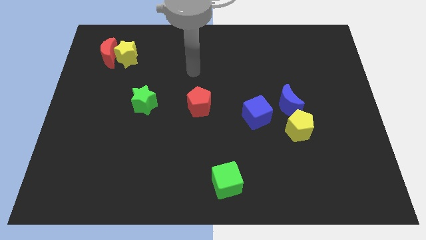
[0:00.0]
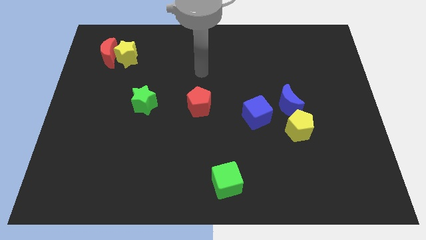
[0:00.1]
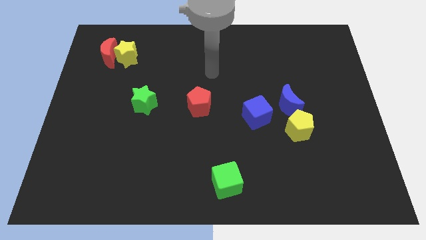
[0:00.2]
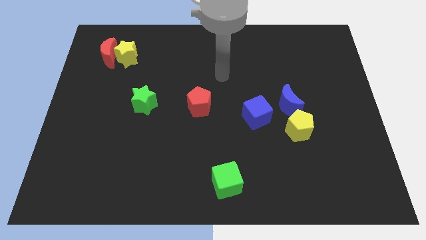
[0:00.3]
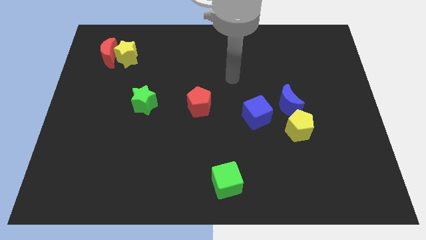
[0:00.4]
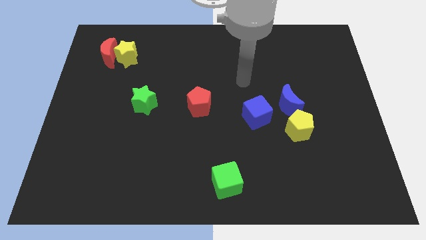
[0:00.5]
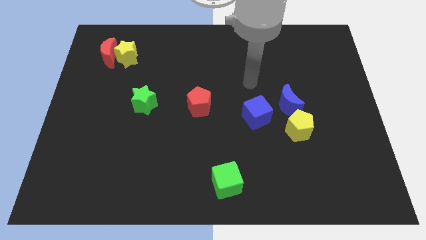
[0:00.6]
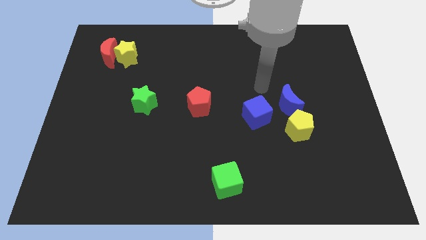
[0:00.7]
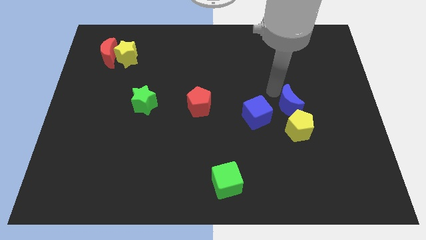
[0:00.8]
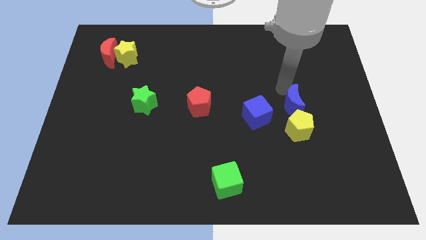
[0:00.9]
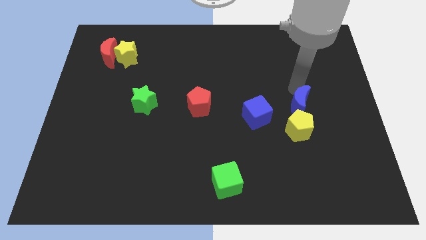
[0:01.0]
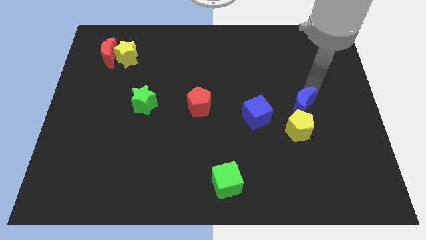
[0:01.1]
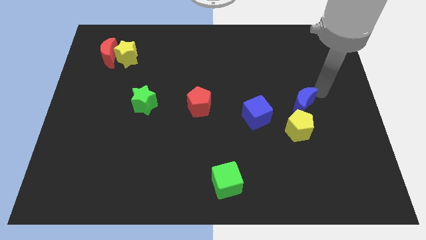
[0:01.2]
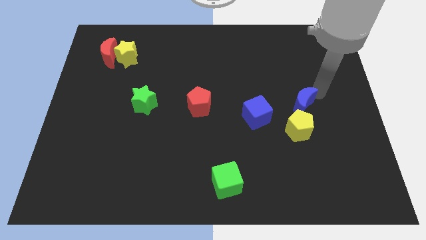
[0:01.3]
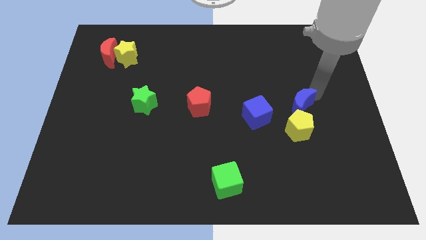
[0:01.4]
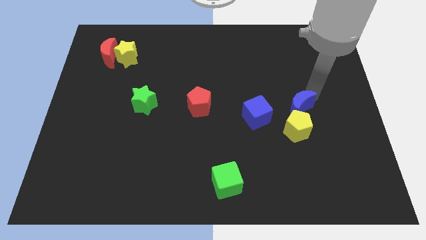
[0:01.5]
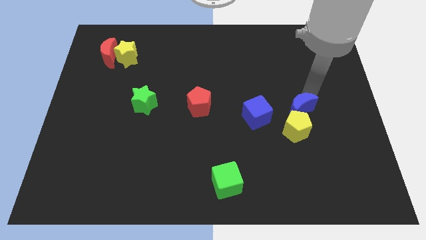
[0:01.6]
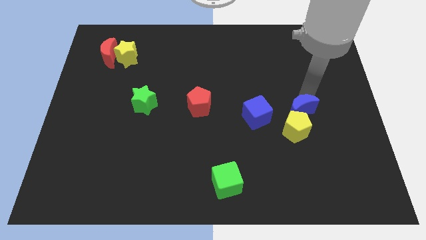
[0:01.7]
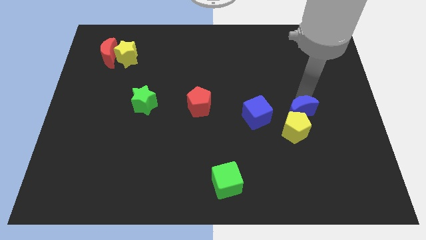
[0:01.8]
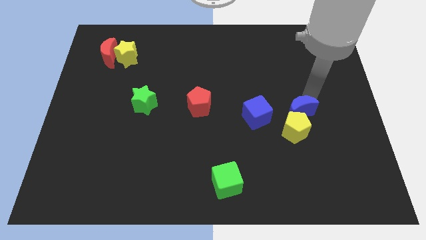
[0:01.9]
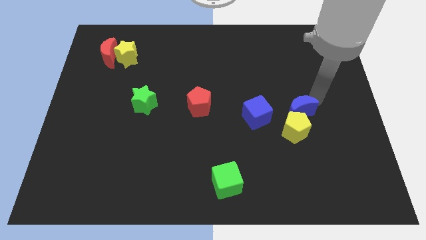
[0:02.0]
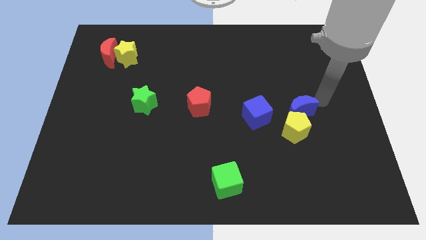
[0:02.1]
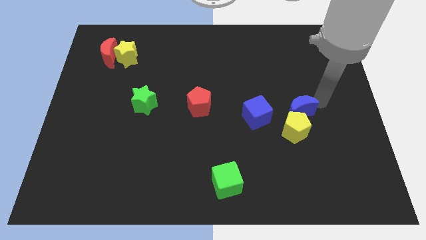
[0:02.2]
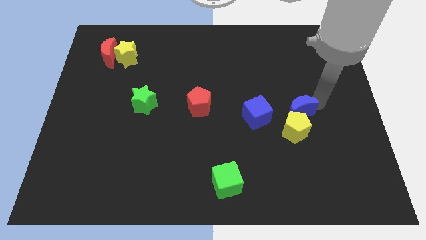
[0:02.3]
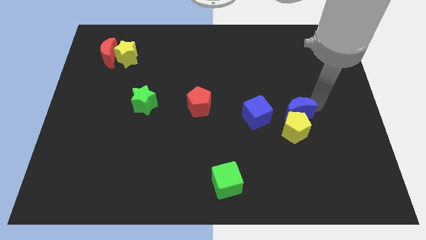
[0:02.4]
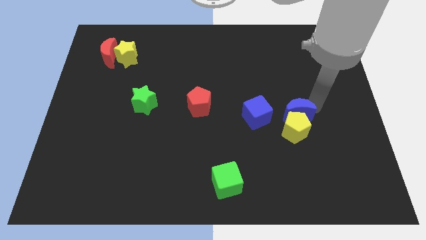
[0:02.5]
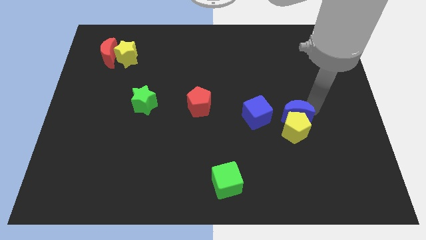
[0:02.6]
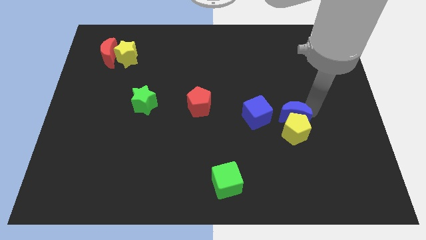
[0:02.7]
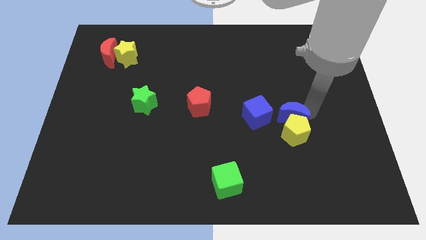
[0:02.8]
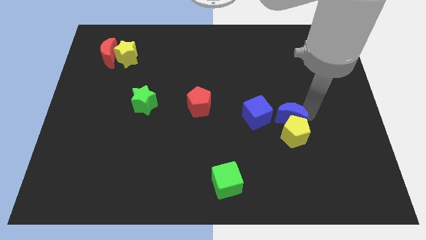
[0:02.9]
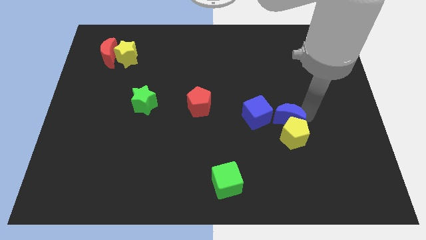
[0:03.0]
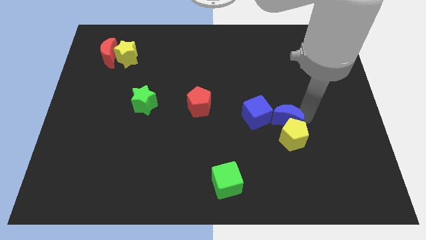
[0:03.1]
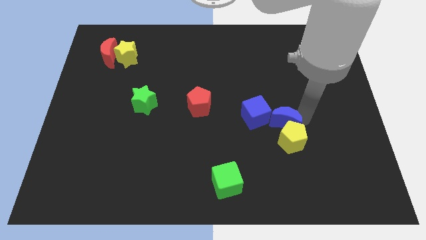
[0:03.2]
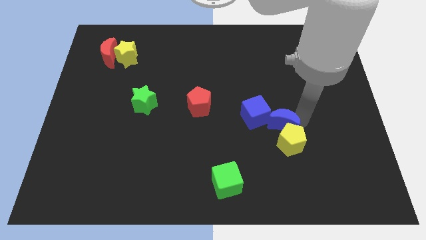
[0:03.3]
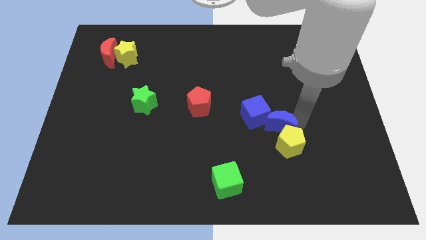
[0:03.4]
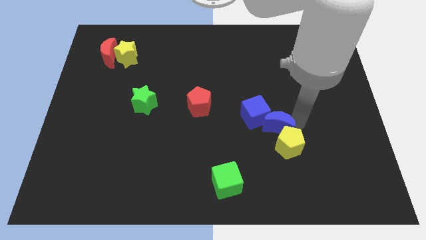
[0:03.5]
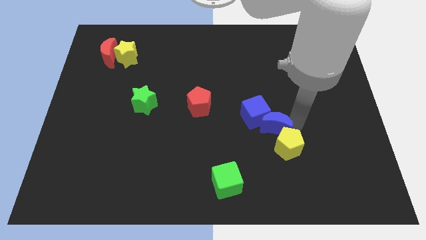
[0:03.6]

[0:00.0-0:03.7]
slide the blue moon downwards and then left a little

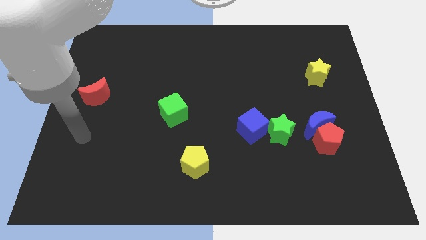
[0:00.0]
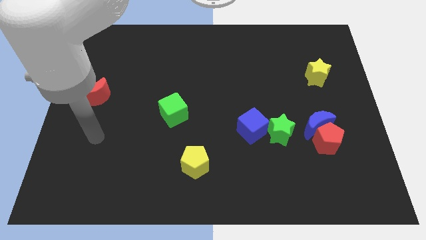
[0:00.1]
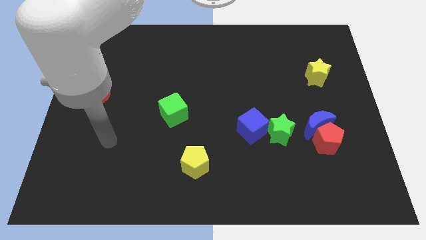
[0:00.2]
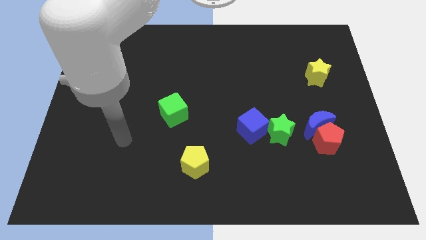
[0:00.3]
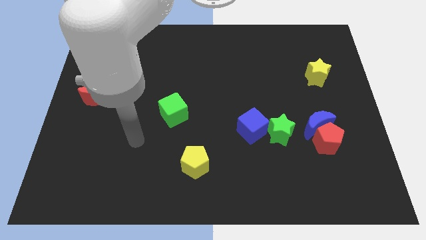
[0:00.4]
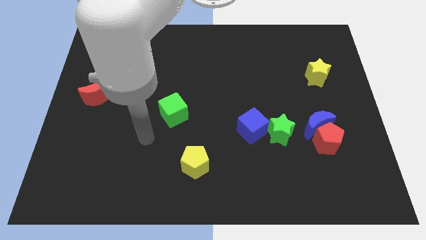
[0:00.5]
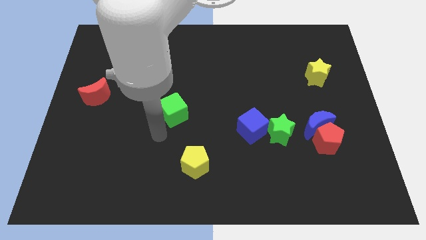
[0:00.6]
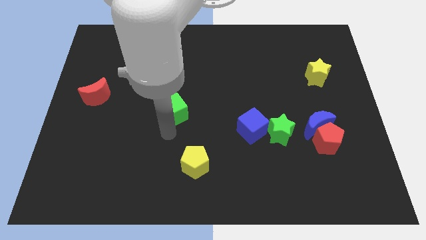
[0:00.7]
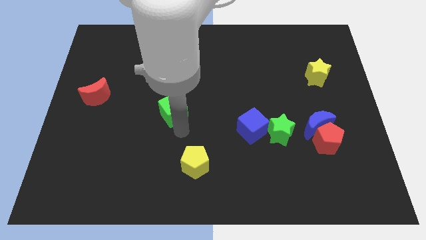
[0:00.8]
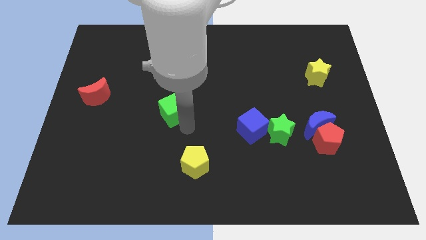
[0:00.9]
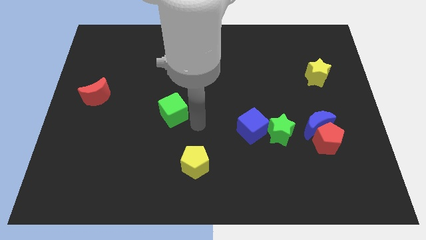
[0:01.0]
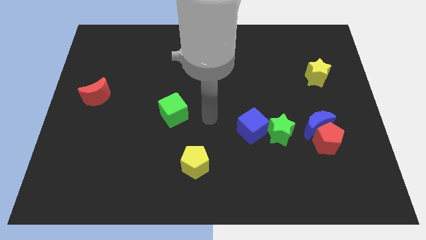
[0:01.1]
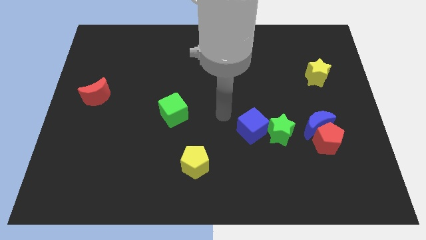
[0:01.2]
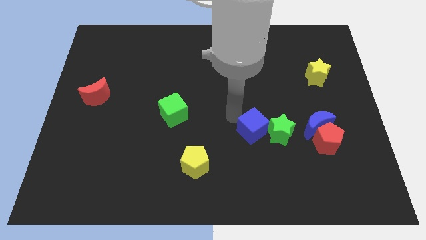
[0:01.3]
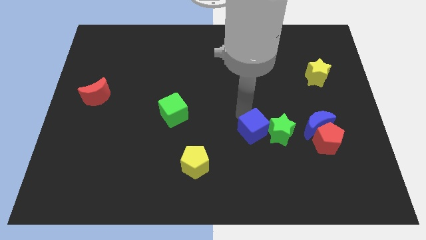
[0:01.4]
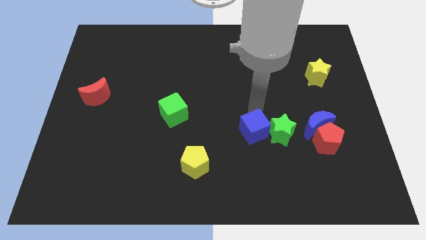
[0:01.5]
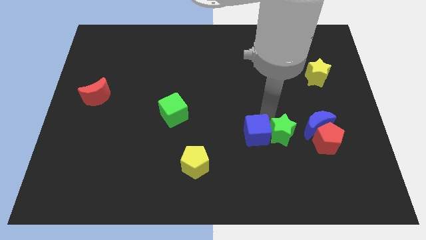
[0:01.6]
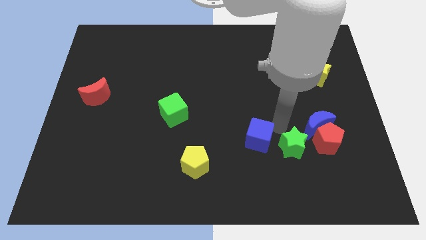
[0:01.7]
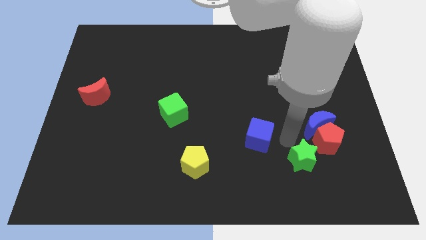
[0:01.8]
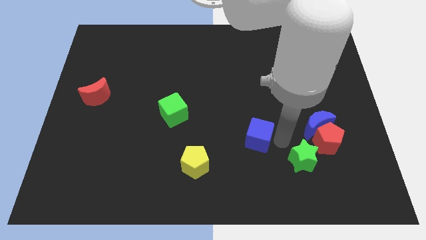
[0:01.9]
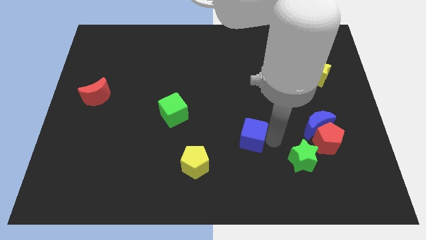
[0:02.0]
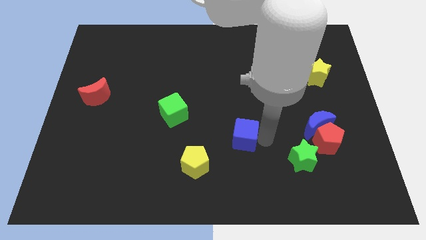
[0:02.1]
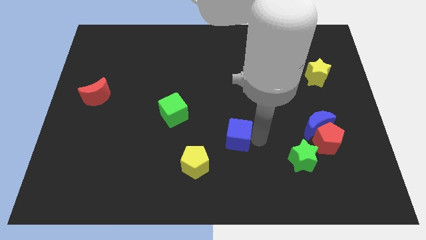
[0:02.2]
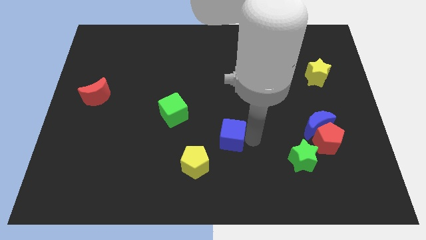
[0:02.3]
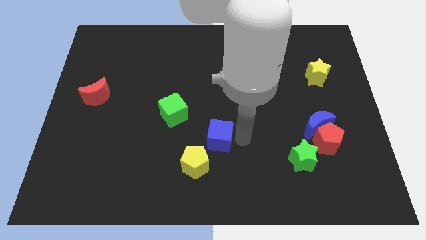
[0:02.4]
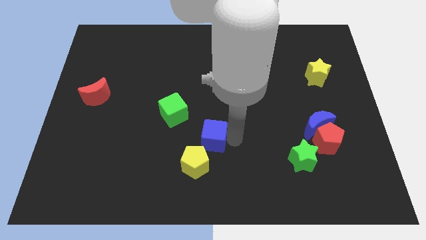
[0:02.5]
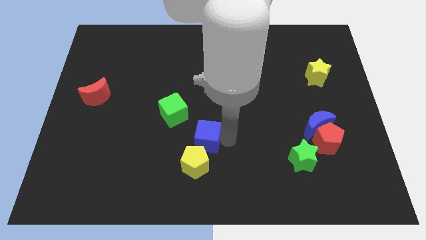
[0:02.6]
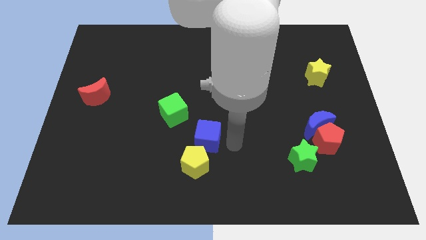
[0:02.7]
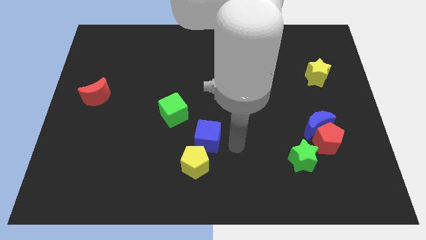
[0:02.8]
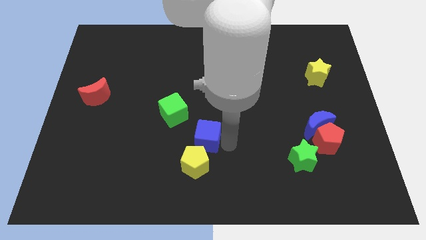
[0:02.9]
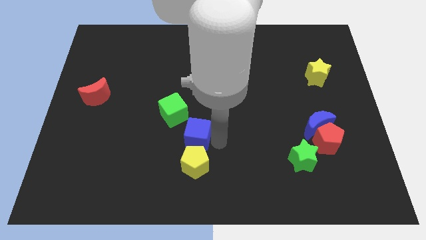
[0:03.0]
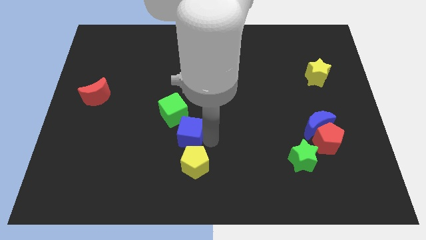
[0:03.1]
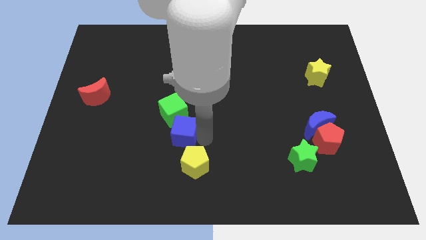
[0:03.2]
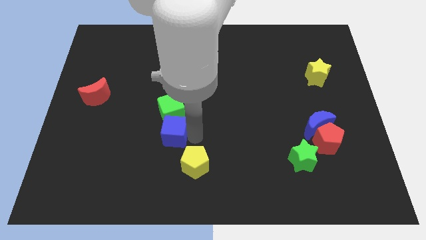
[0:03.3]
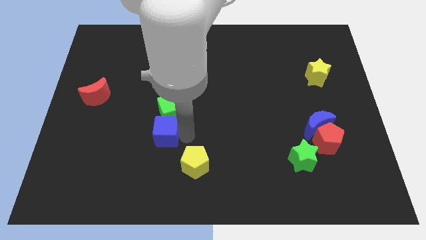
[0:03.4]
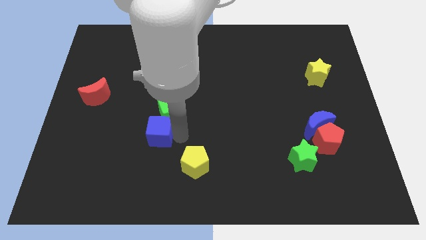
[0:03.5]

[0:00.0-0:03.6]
move the blue cube to the left

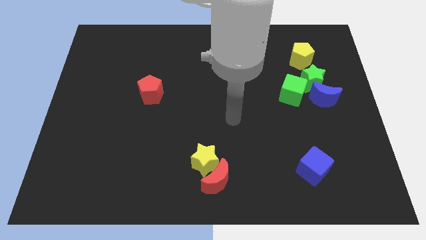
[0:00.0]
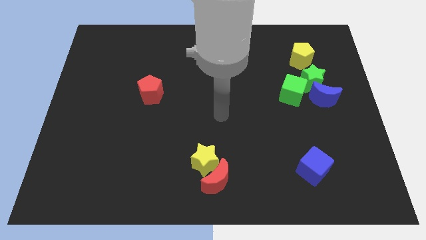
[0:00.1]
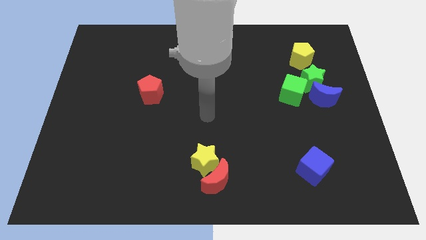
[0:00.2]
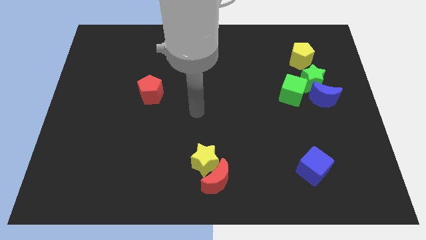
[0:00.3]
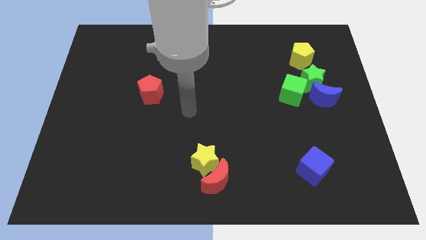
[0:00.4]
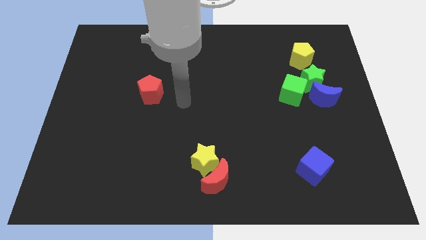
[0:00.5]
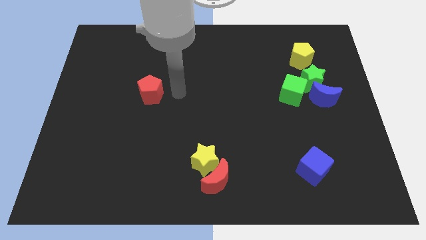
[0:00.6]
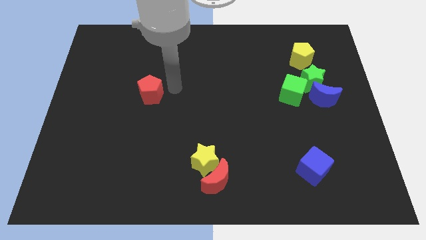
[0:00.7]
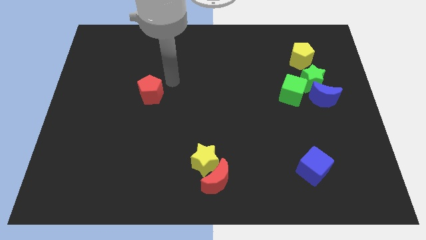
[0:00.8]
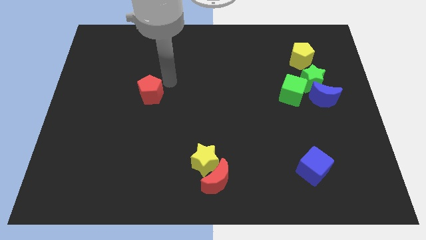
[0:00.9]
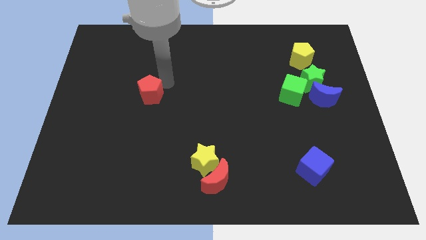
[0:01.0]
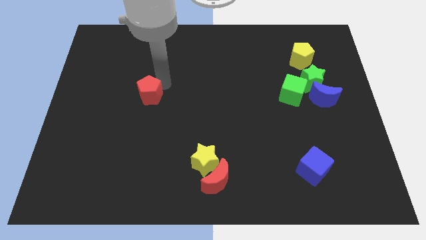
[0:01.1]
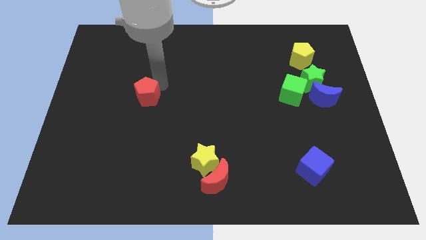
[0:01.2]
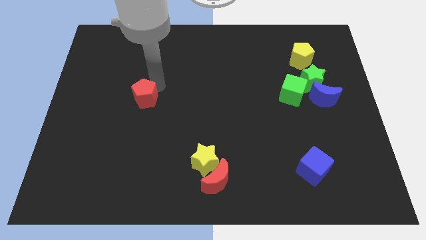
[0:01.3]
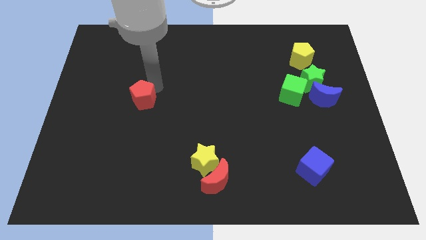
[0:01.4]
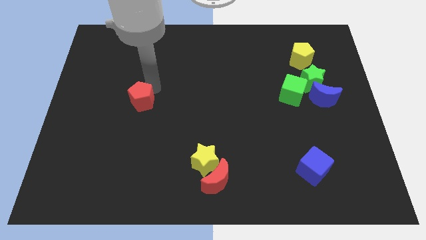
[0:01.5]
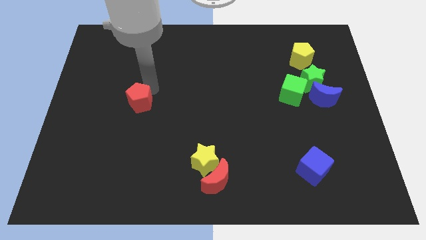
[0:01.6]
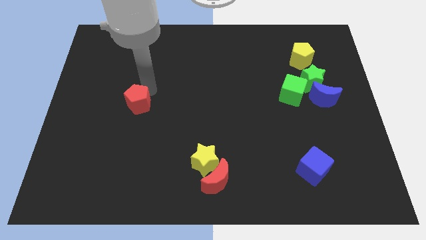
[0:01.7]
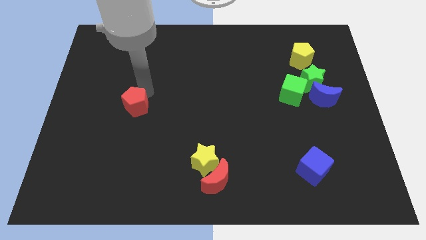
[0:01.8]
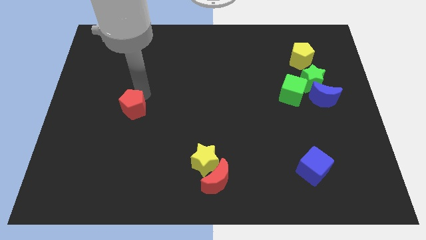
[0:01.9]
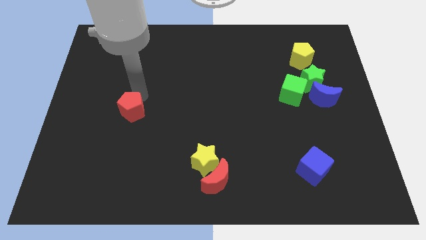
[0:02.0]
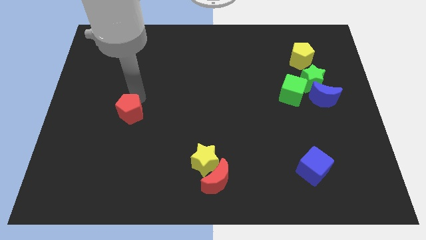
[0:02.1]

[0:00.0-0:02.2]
push the red pentagon a little bit down and to the left
